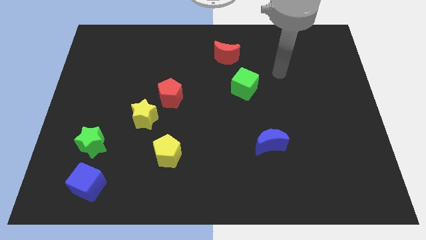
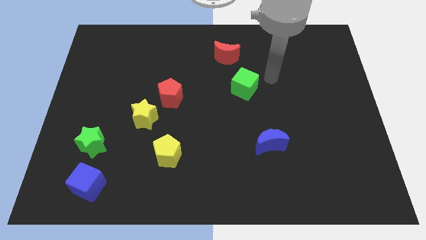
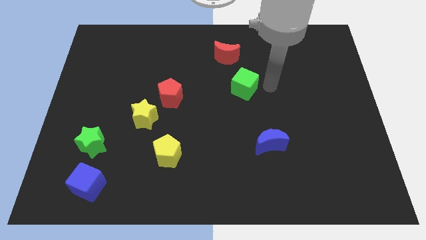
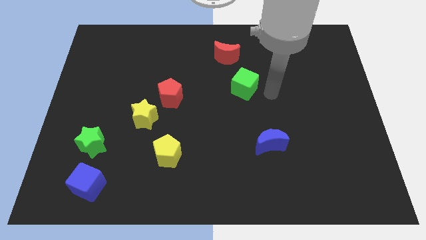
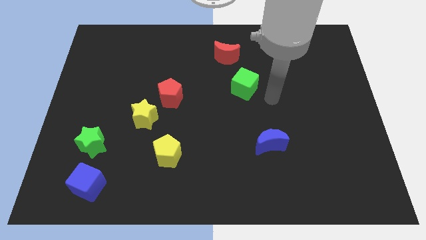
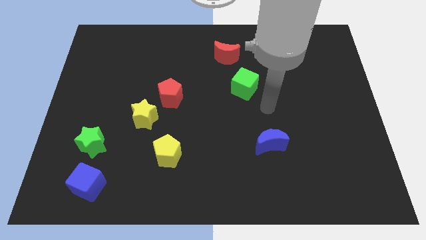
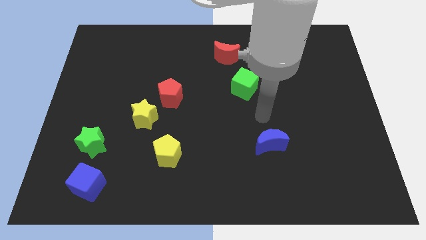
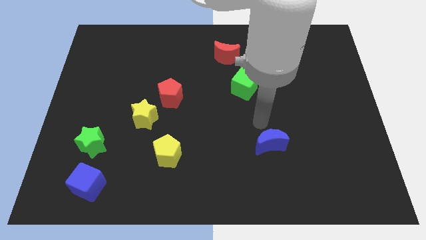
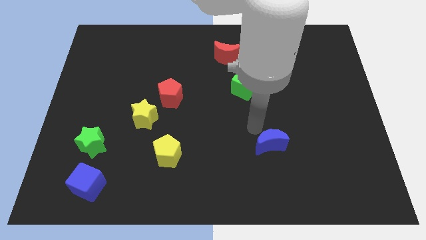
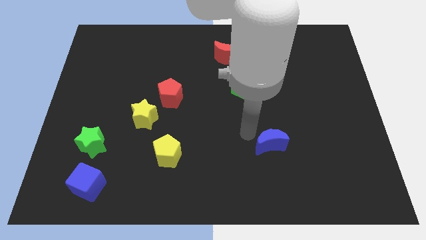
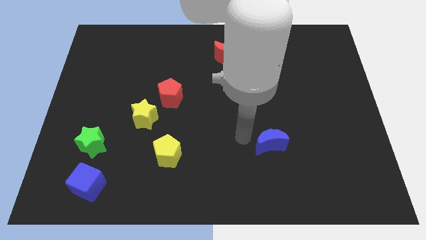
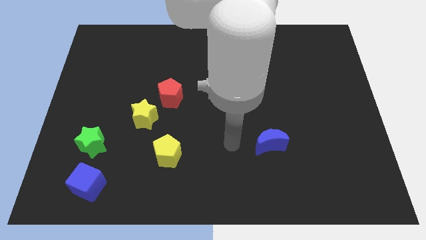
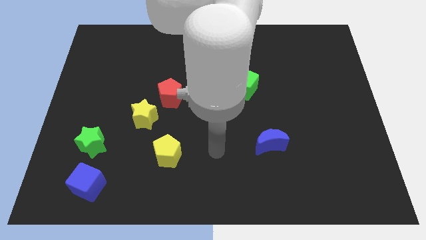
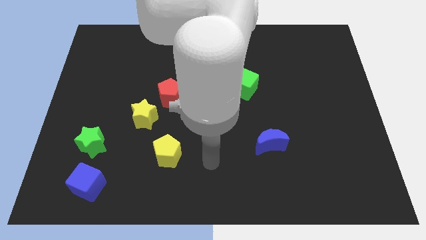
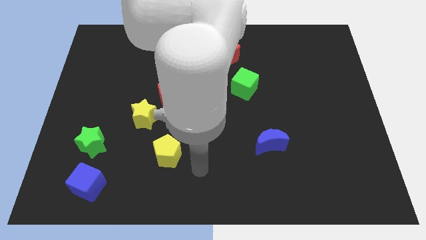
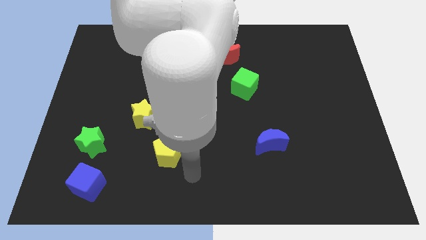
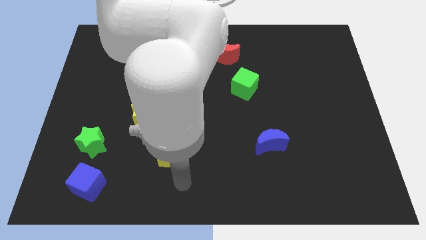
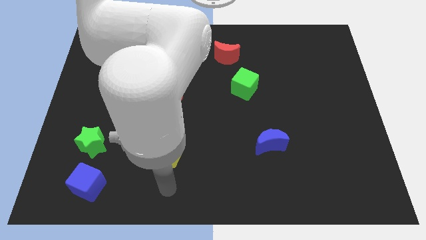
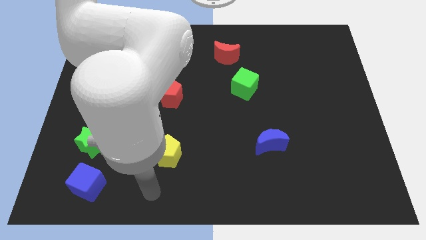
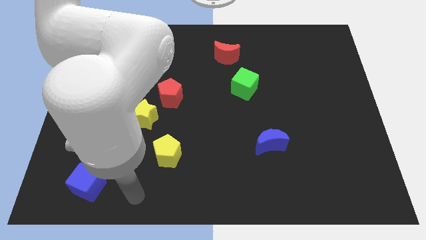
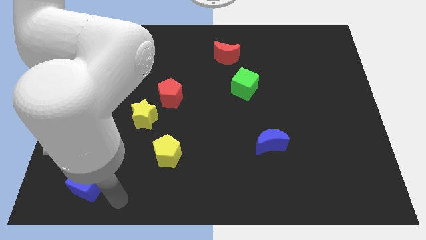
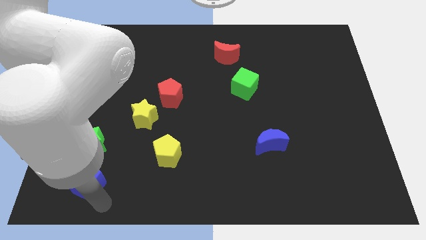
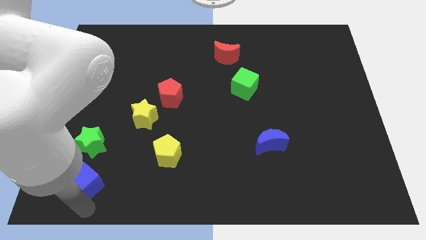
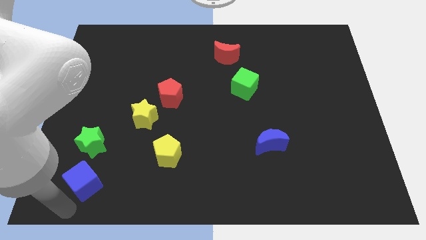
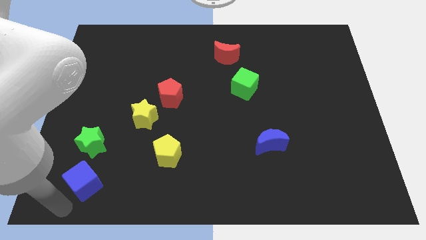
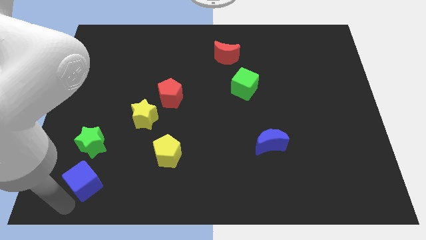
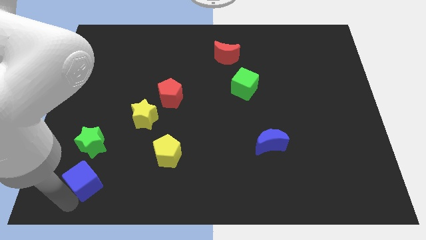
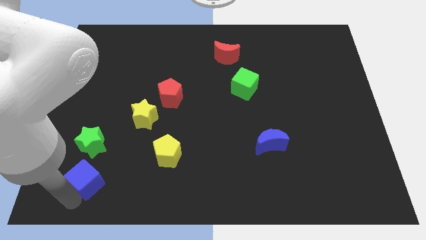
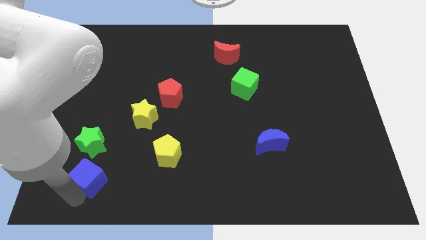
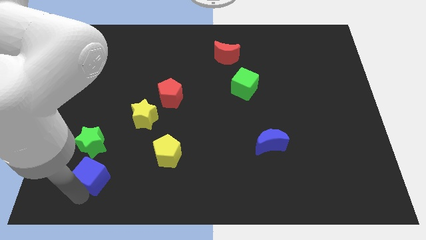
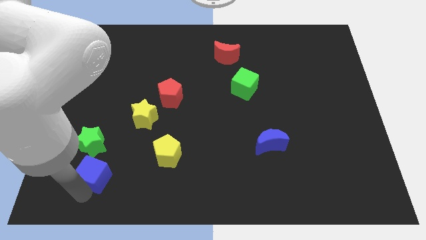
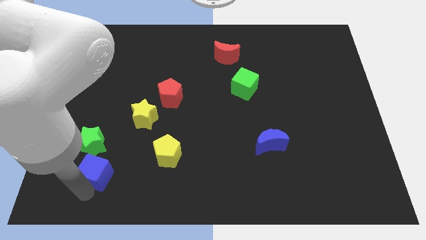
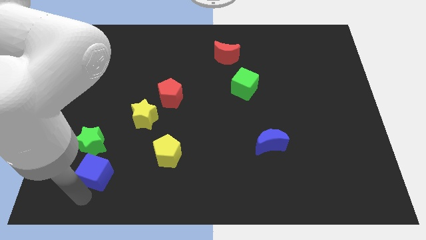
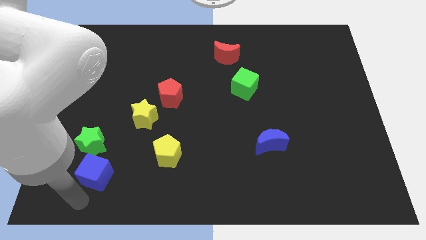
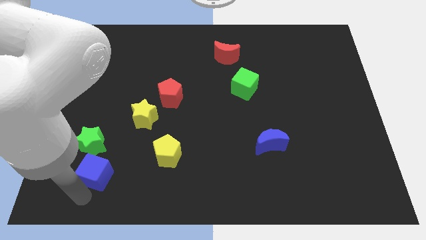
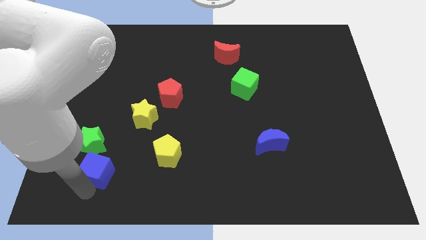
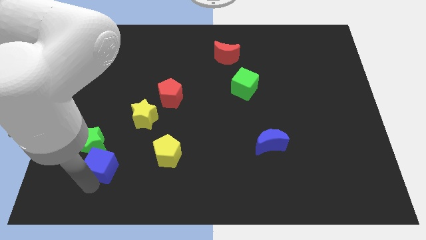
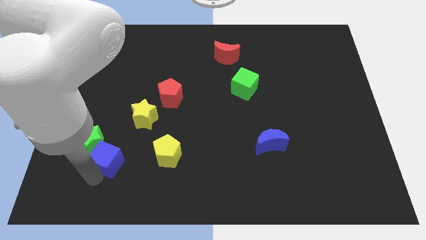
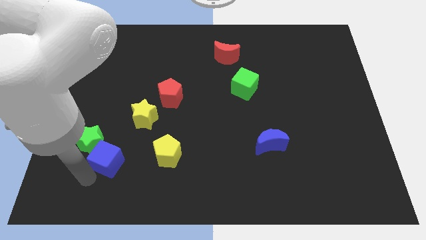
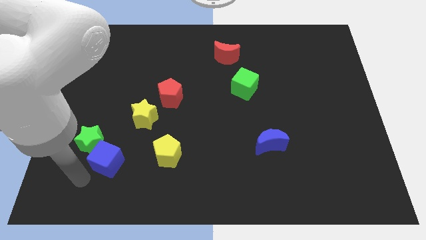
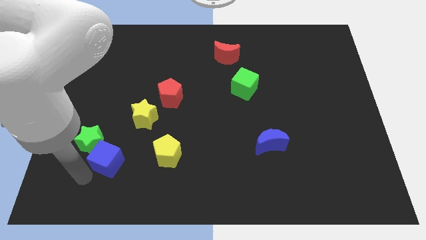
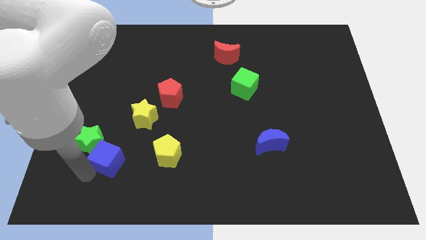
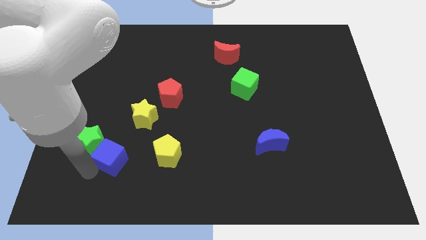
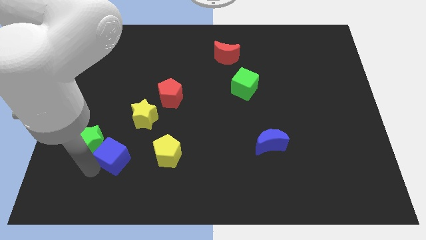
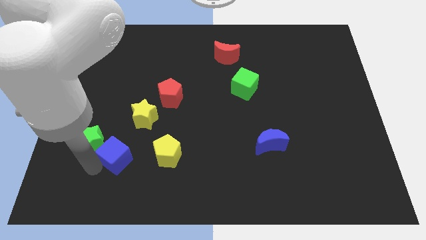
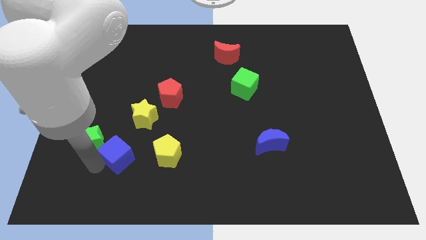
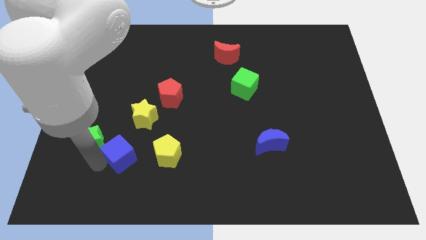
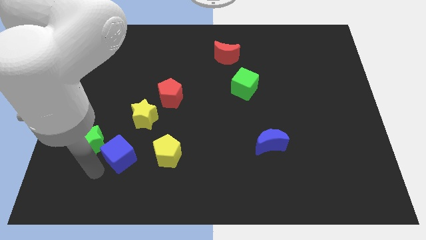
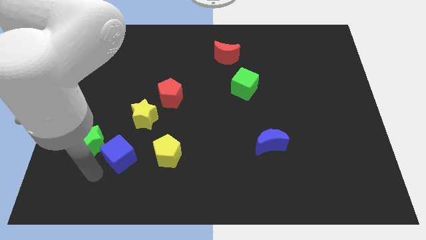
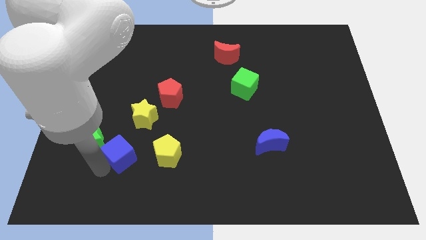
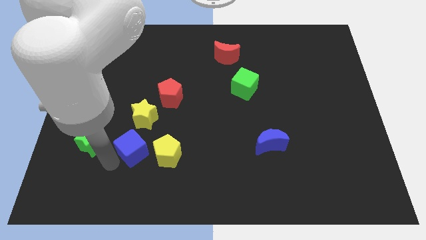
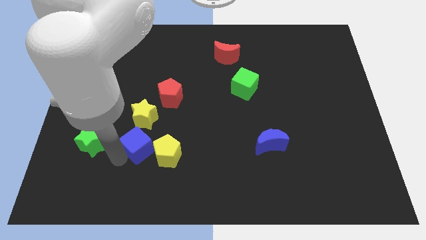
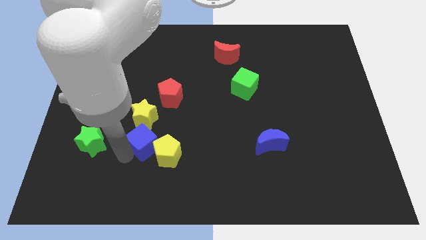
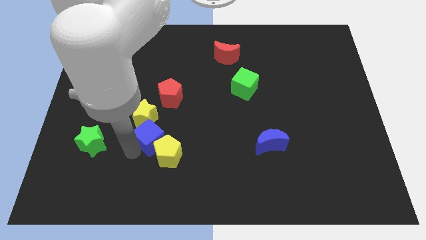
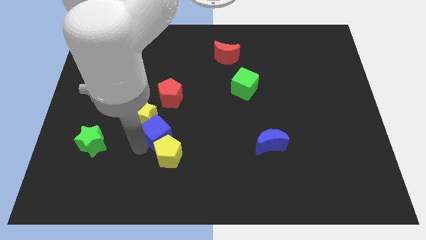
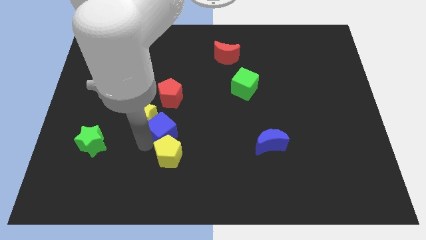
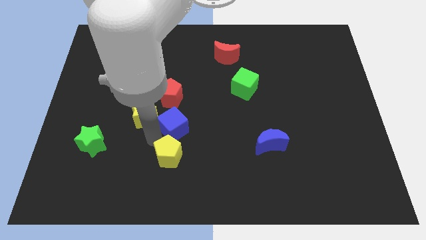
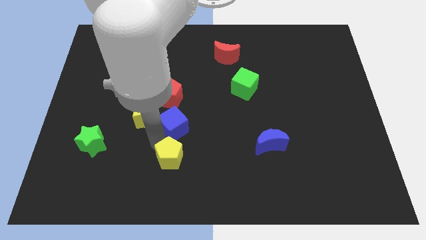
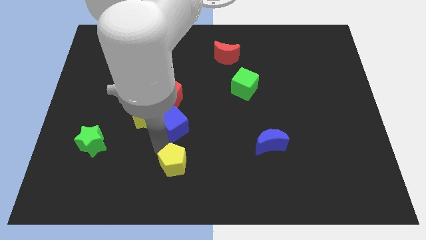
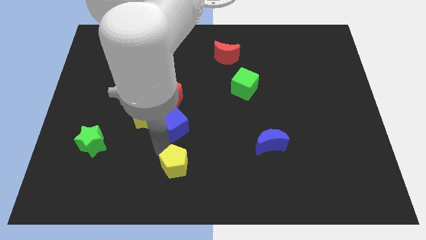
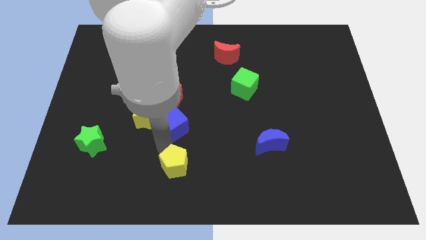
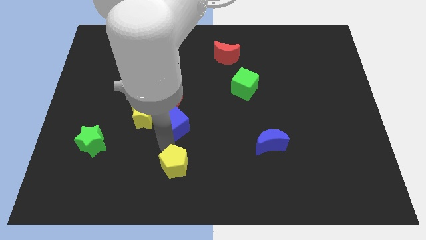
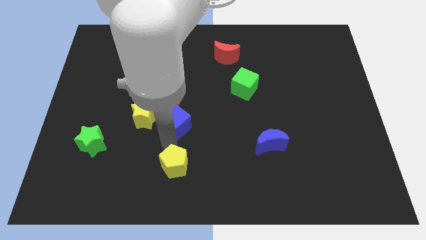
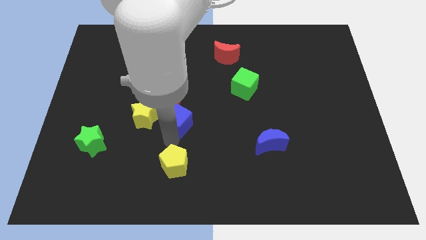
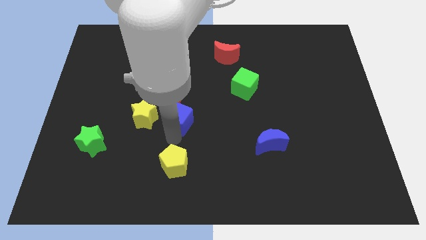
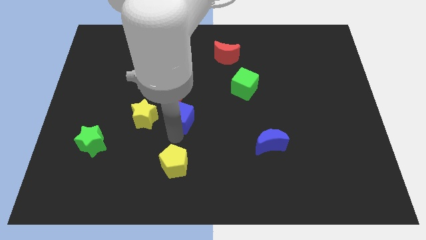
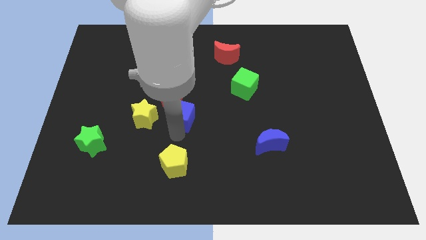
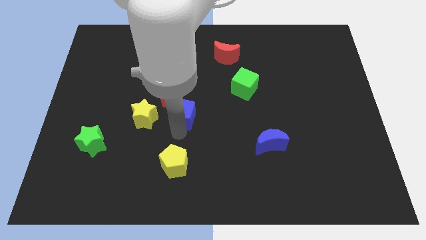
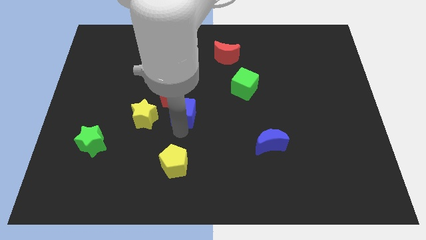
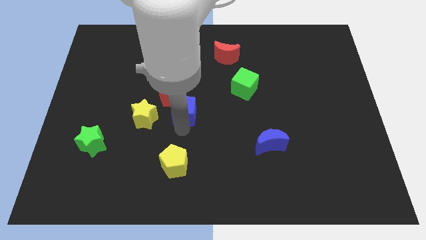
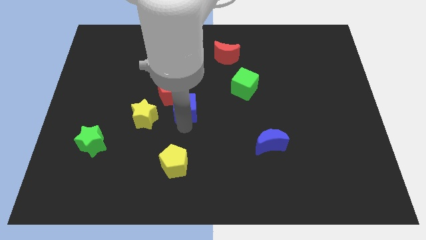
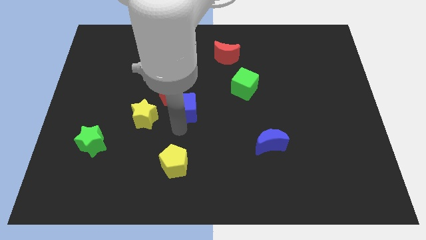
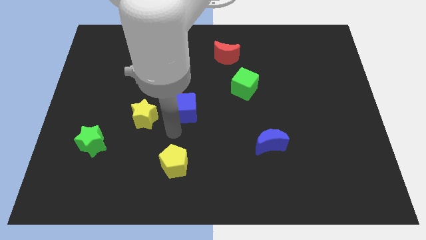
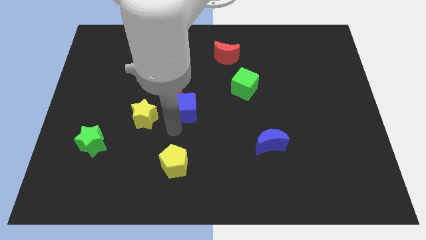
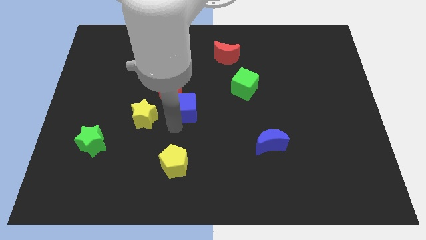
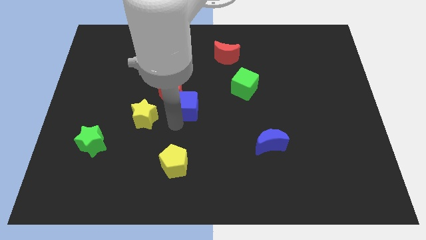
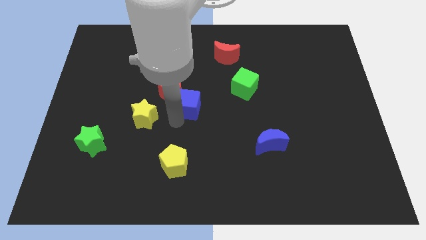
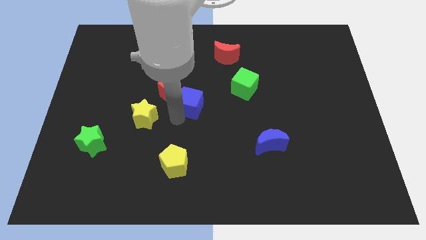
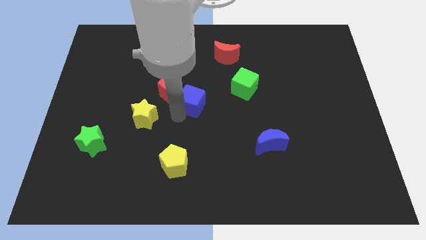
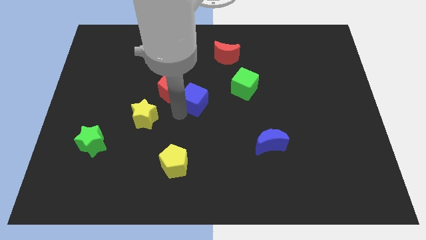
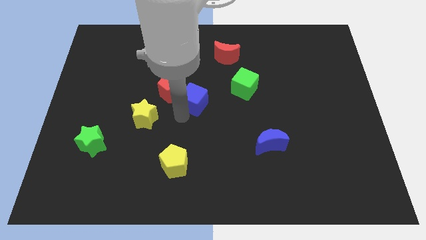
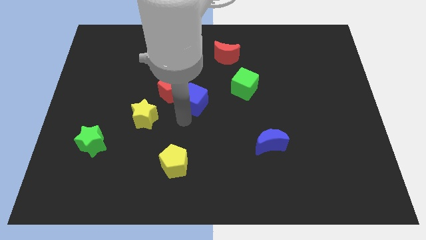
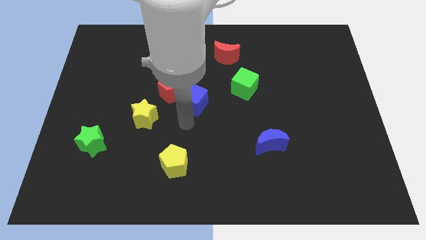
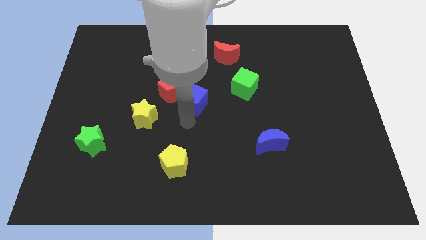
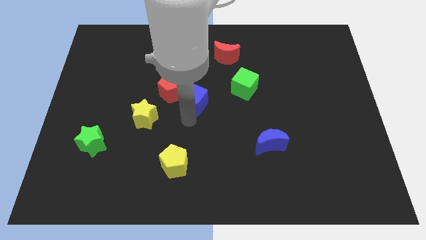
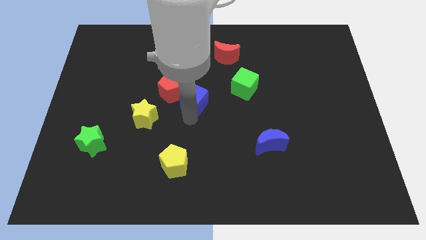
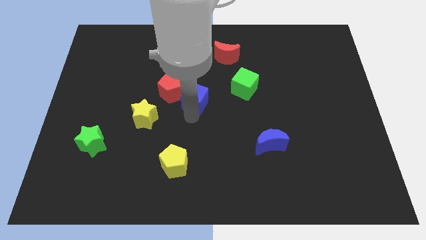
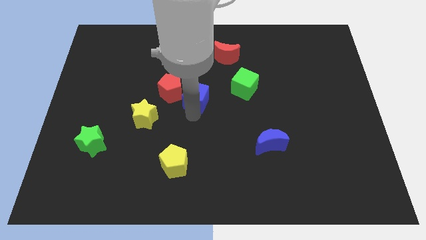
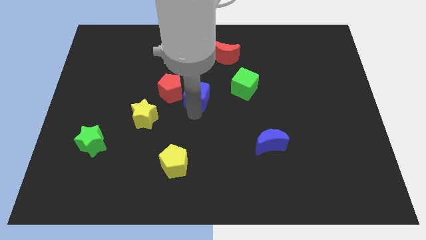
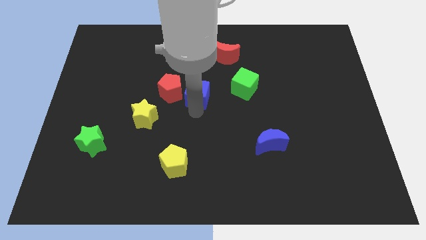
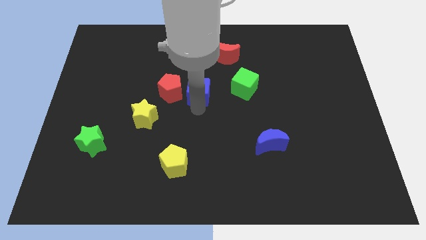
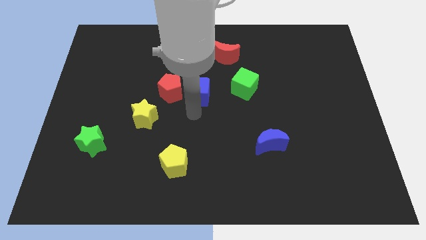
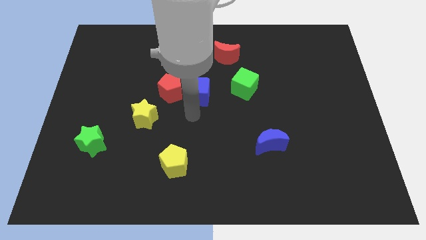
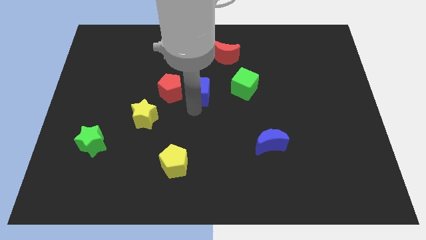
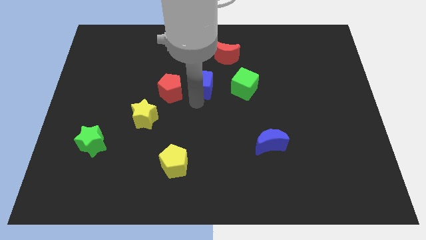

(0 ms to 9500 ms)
move the blue cube to the bottom left side of the red moon
